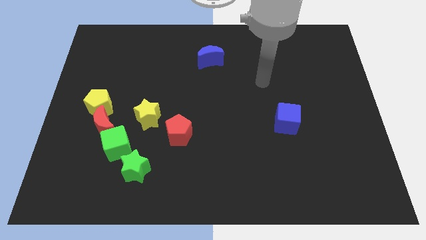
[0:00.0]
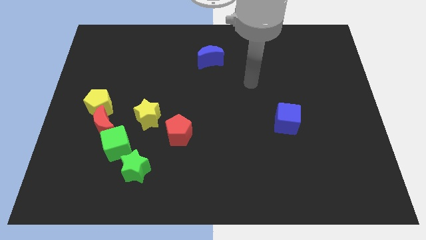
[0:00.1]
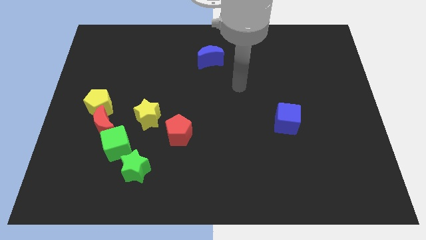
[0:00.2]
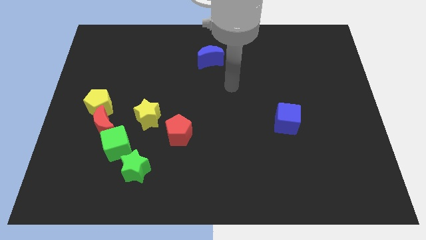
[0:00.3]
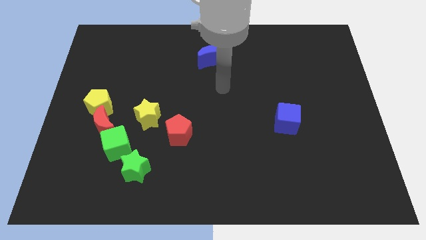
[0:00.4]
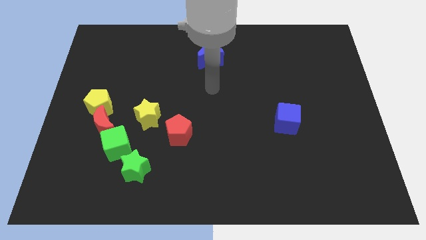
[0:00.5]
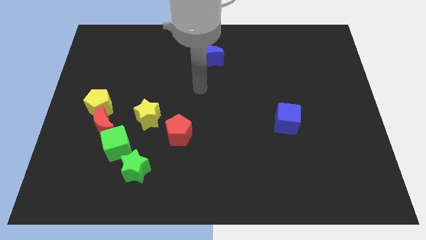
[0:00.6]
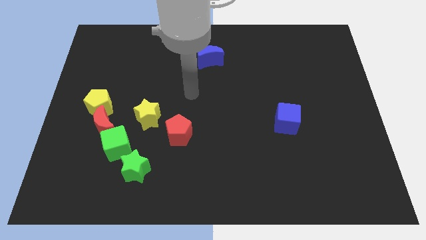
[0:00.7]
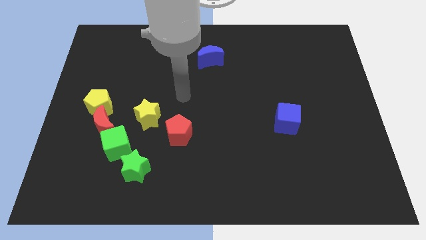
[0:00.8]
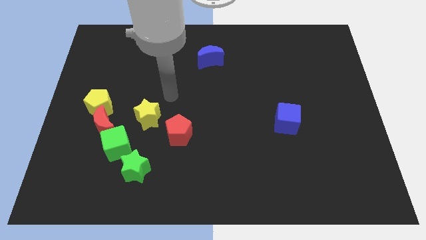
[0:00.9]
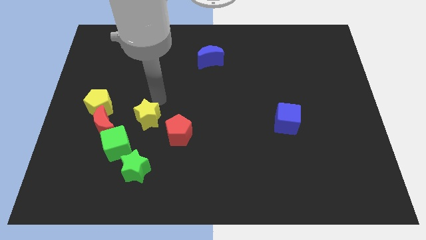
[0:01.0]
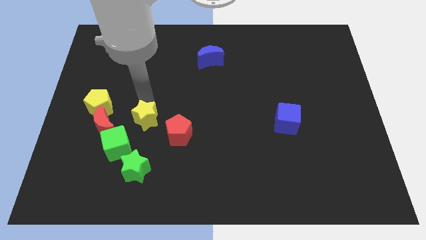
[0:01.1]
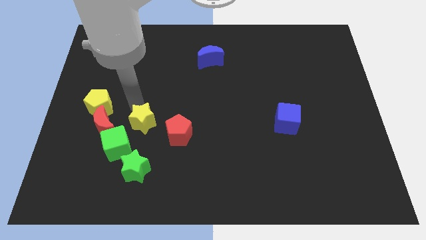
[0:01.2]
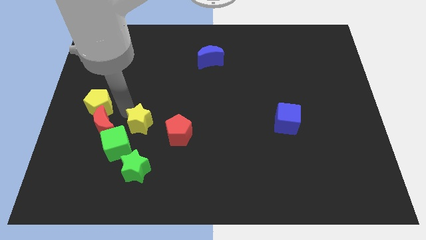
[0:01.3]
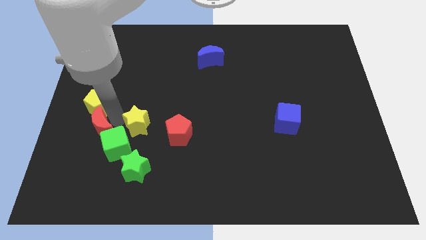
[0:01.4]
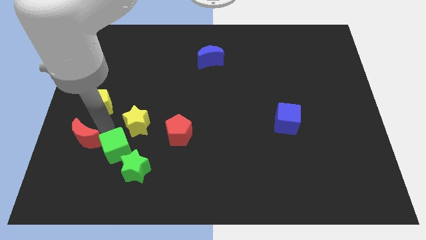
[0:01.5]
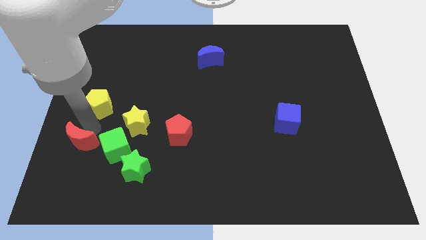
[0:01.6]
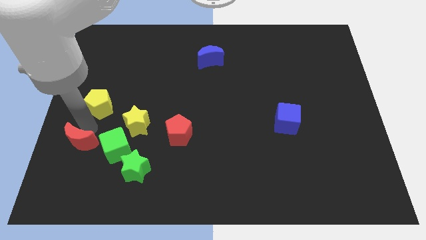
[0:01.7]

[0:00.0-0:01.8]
move the yellow pentagon away from the red moon

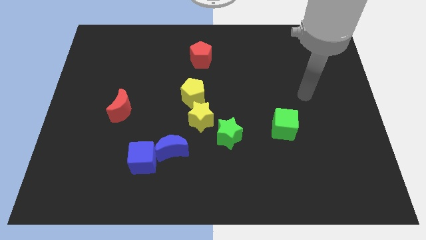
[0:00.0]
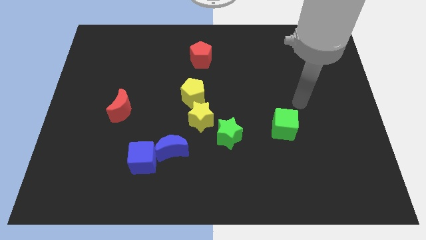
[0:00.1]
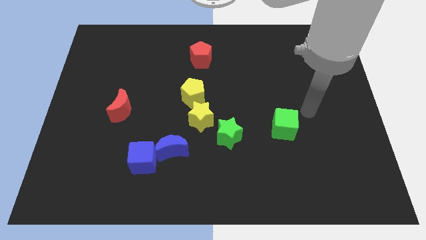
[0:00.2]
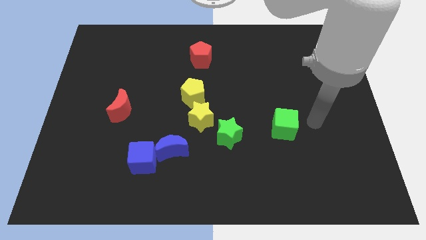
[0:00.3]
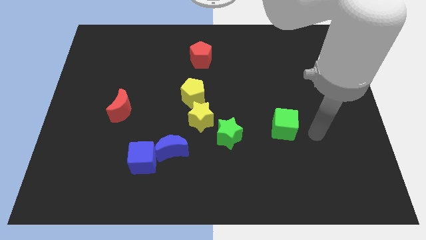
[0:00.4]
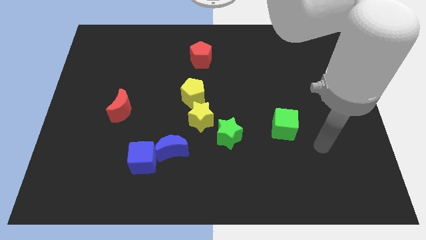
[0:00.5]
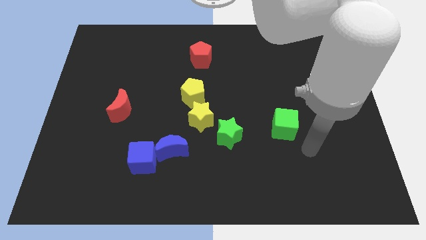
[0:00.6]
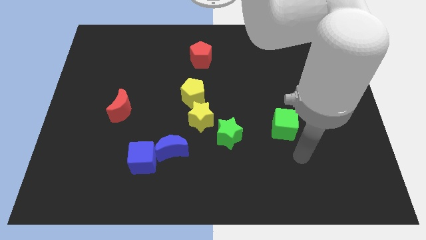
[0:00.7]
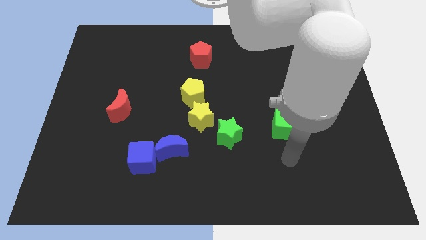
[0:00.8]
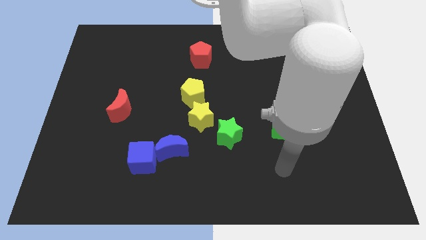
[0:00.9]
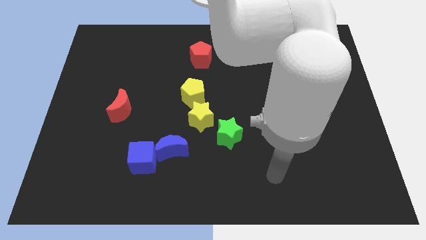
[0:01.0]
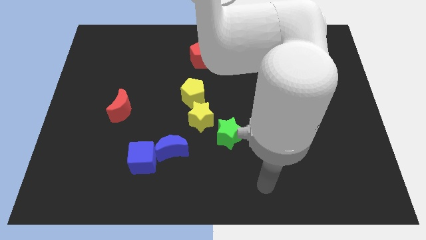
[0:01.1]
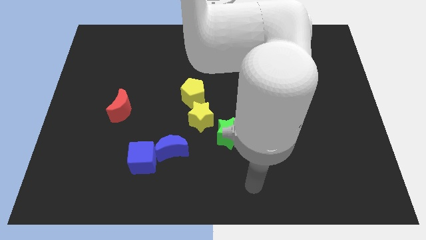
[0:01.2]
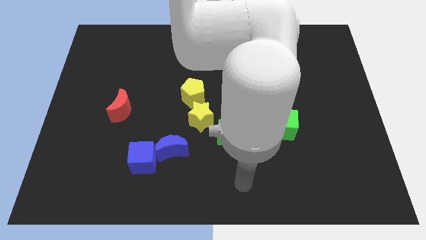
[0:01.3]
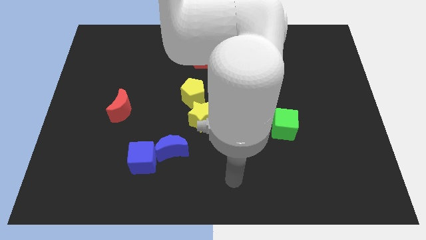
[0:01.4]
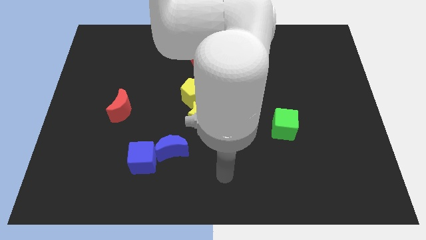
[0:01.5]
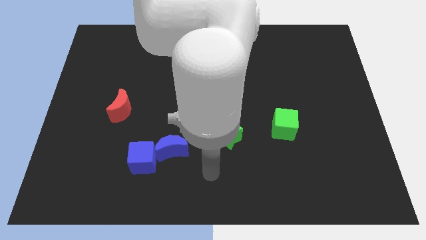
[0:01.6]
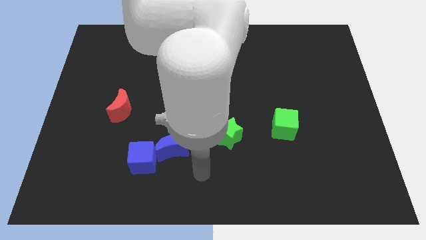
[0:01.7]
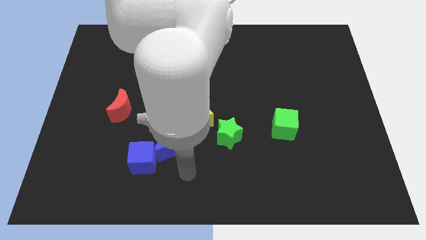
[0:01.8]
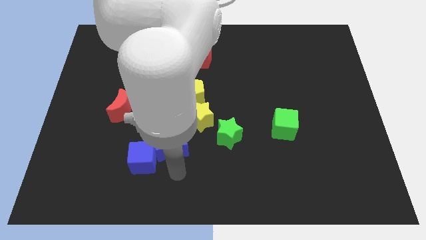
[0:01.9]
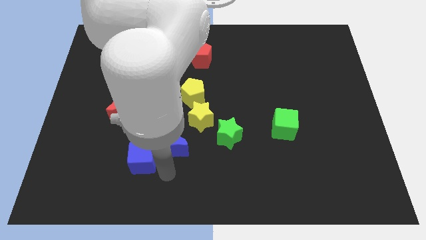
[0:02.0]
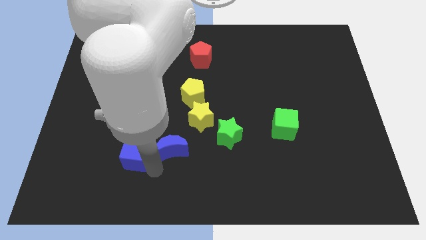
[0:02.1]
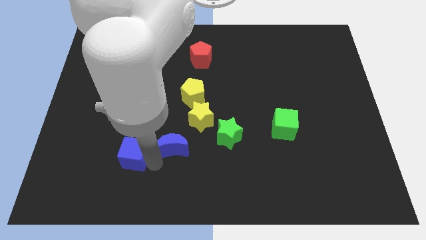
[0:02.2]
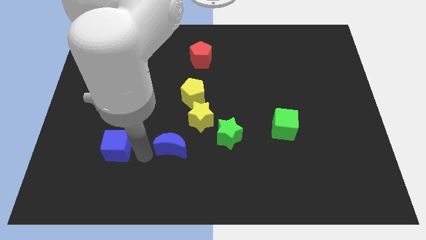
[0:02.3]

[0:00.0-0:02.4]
move the blue moon away from the blue cube

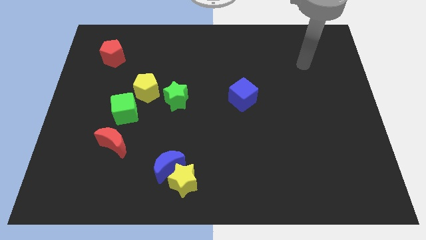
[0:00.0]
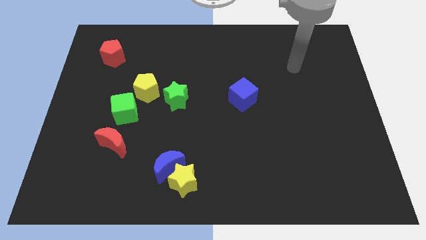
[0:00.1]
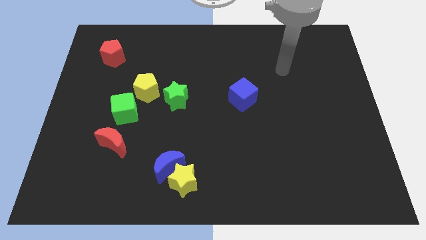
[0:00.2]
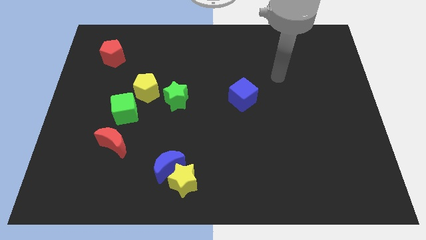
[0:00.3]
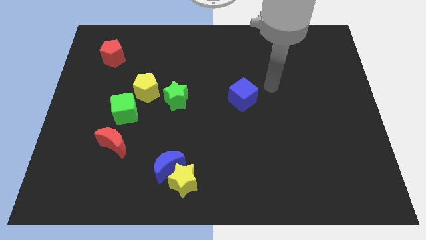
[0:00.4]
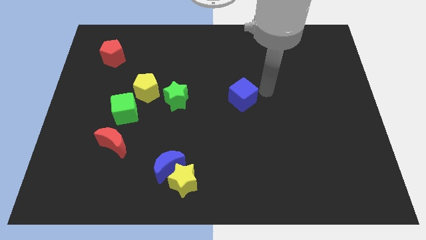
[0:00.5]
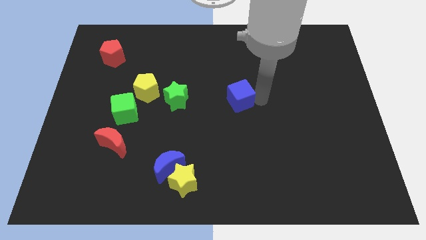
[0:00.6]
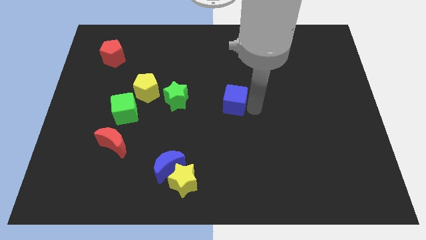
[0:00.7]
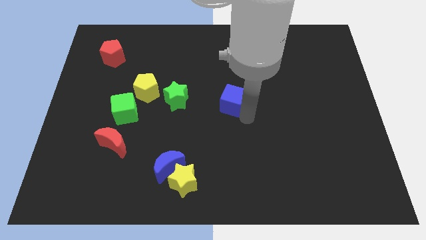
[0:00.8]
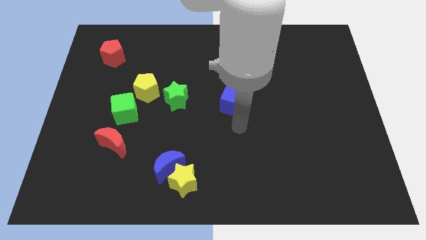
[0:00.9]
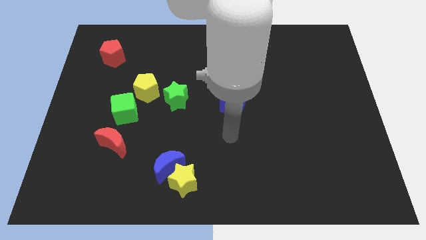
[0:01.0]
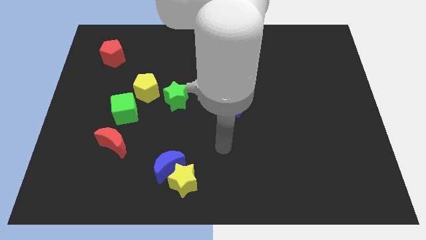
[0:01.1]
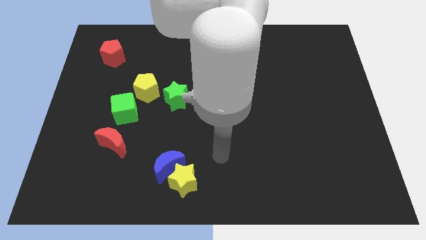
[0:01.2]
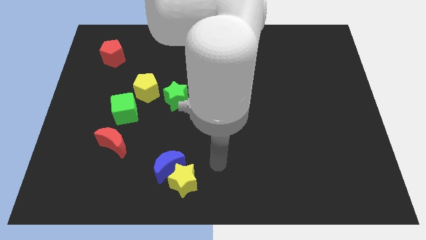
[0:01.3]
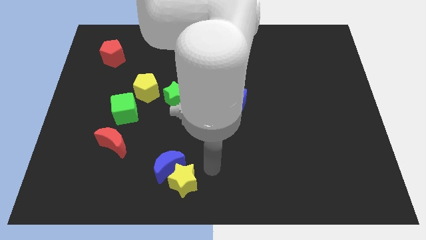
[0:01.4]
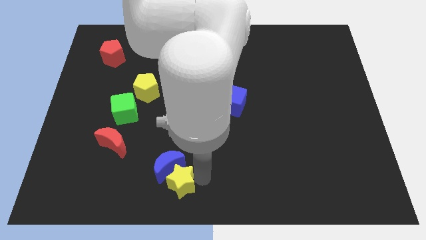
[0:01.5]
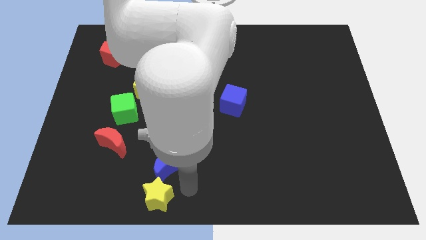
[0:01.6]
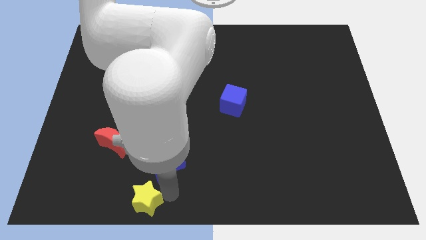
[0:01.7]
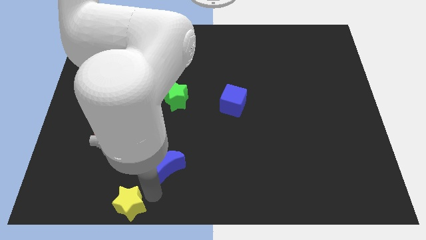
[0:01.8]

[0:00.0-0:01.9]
pull the blue moon apart from the yellow star

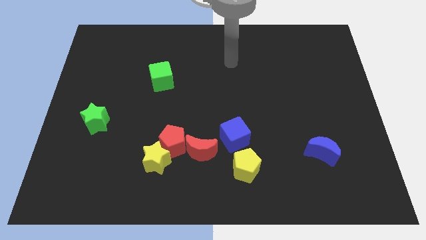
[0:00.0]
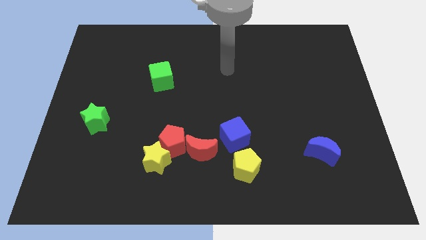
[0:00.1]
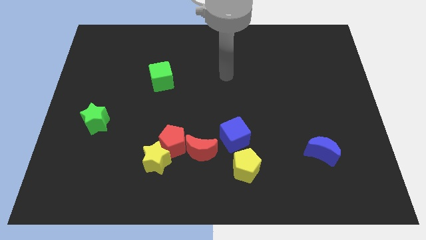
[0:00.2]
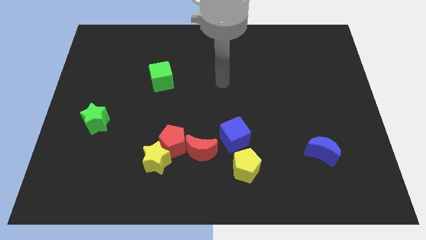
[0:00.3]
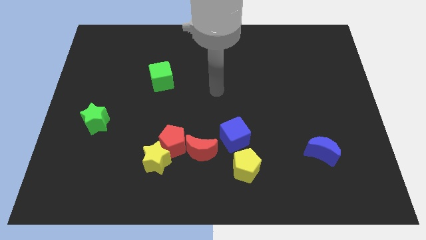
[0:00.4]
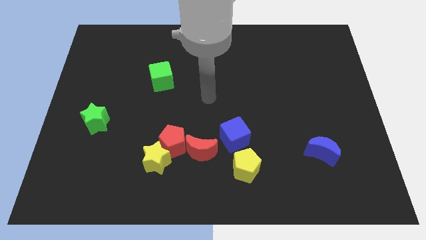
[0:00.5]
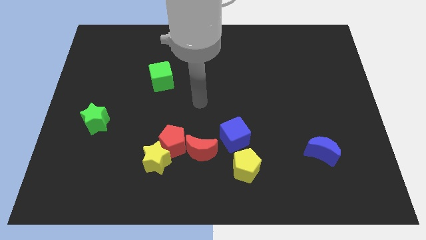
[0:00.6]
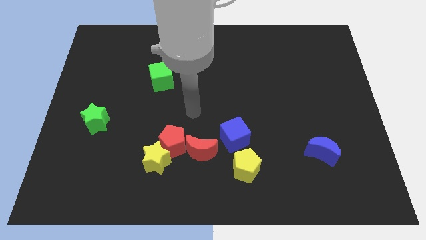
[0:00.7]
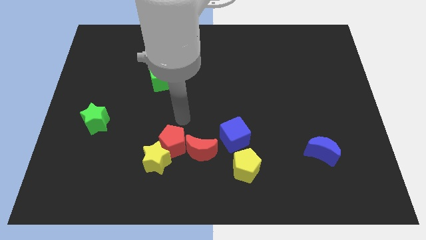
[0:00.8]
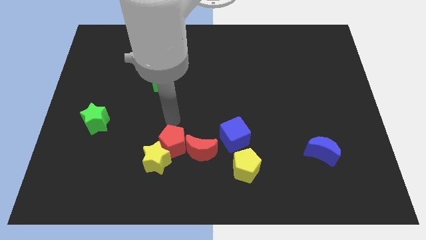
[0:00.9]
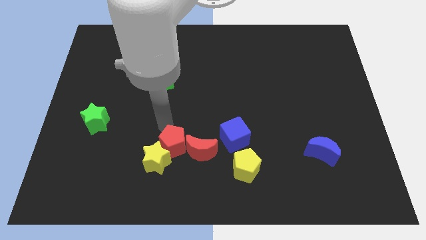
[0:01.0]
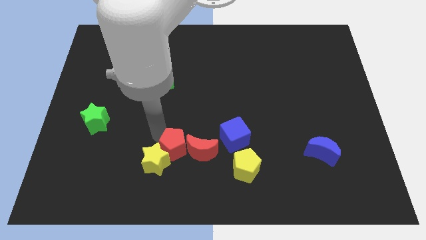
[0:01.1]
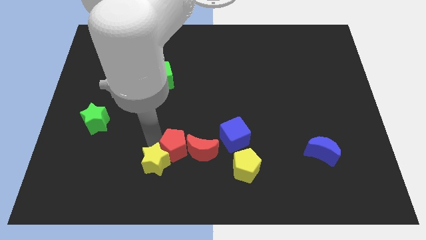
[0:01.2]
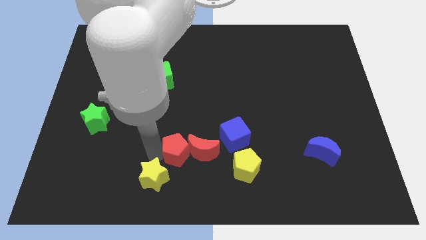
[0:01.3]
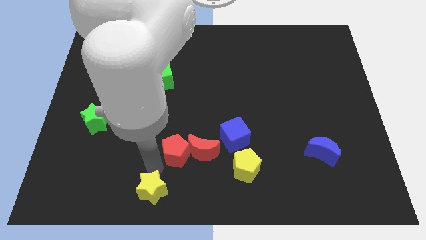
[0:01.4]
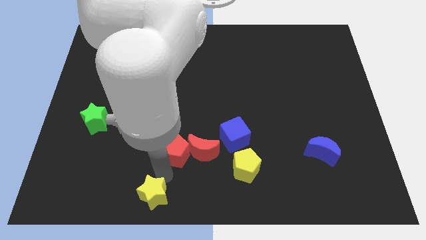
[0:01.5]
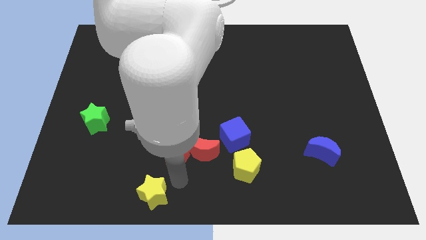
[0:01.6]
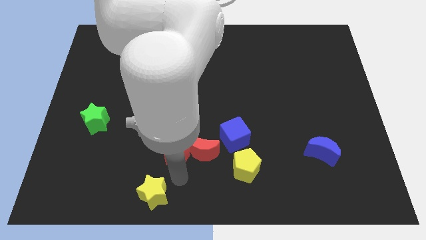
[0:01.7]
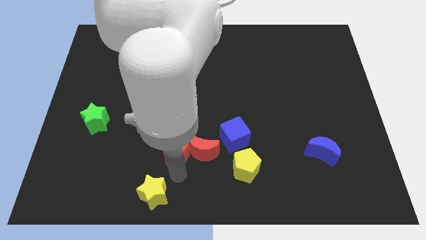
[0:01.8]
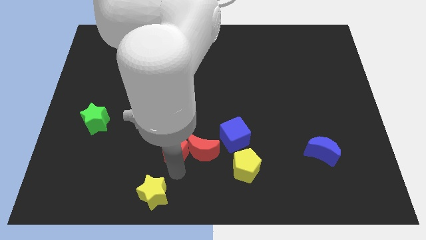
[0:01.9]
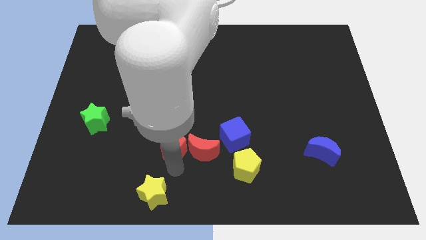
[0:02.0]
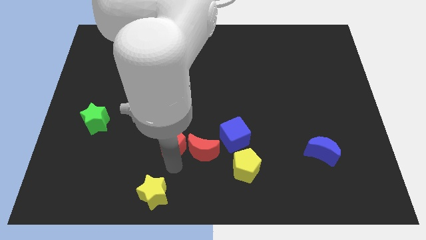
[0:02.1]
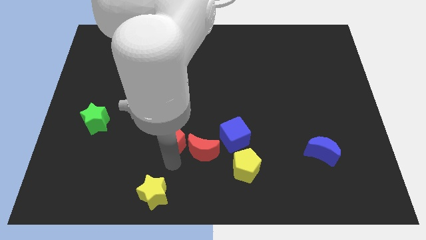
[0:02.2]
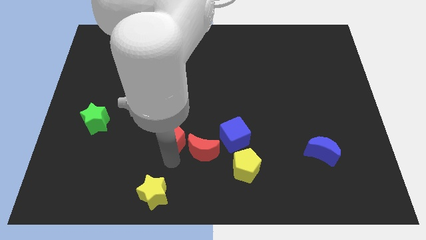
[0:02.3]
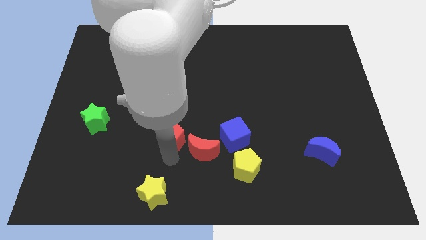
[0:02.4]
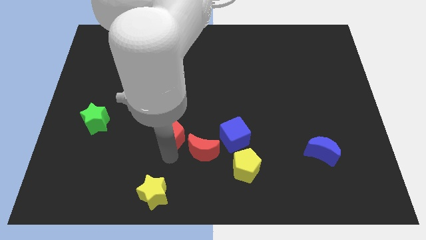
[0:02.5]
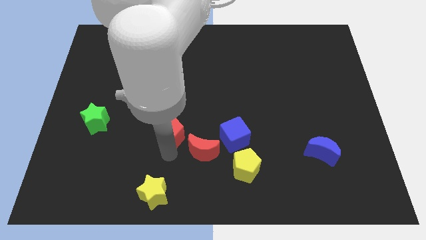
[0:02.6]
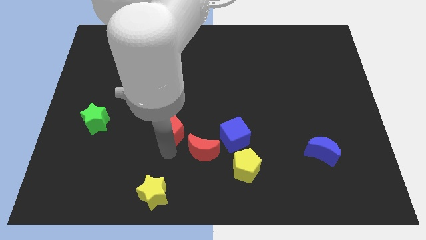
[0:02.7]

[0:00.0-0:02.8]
move the red pentagon away from the yellow star and red moon

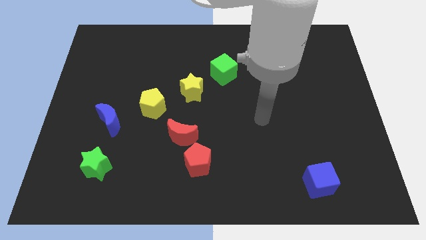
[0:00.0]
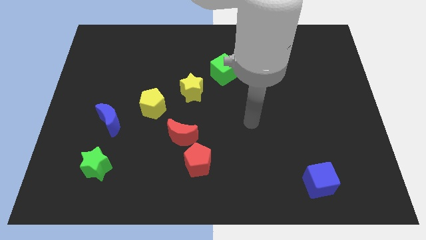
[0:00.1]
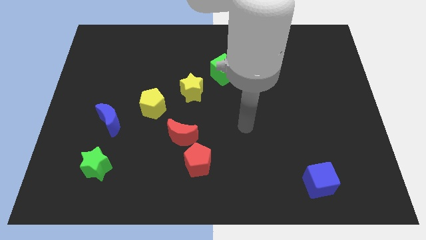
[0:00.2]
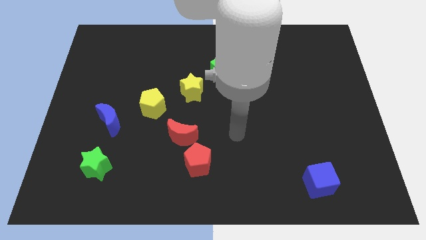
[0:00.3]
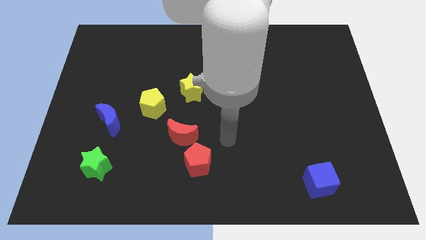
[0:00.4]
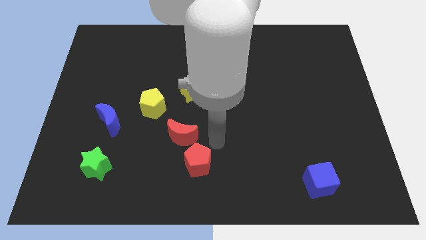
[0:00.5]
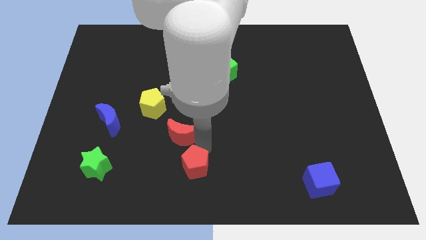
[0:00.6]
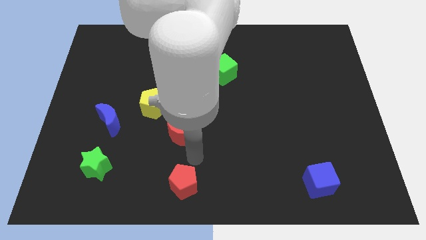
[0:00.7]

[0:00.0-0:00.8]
separate the red moon from the red pentagon
